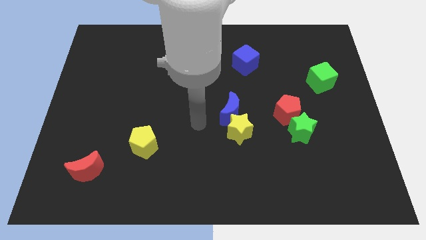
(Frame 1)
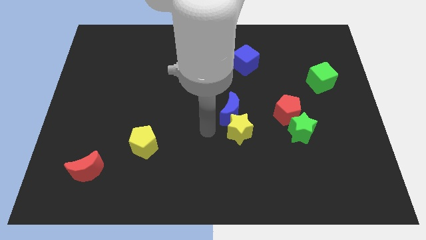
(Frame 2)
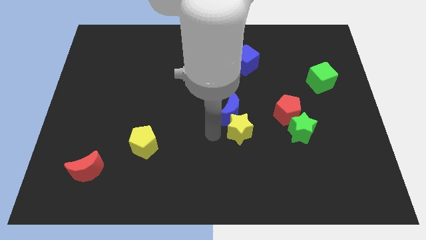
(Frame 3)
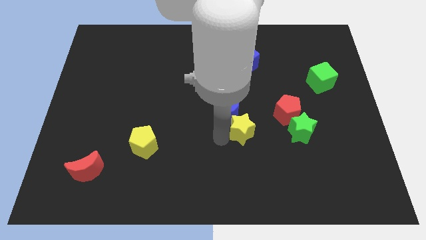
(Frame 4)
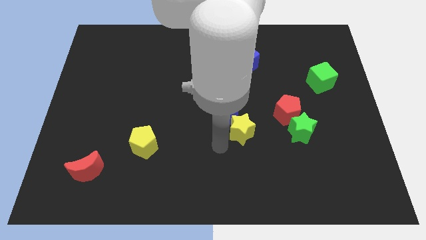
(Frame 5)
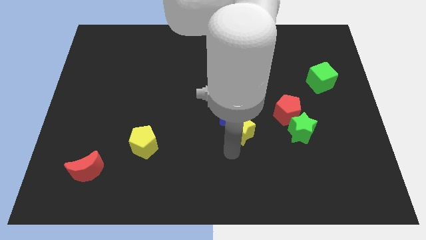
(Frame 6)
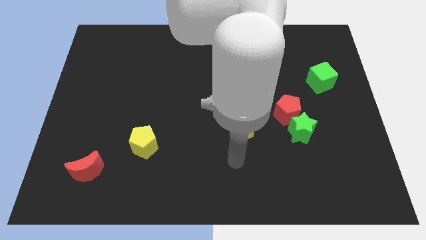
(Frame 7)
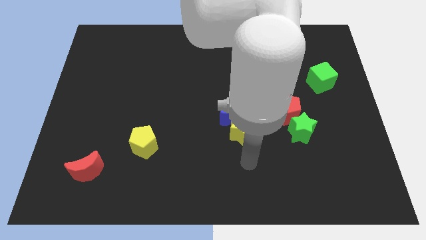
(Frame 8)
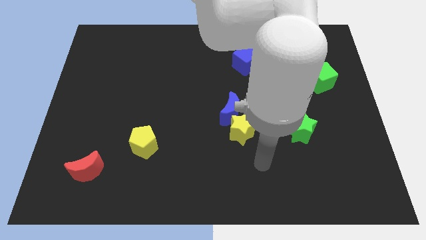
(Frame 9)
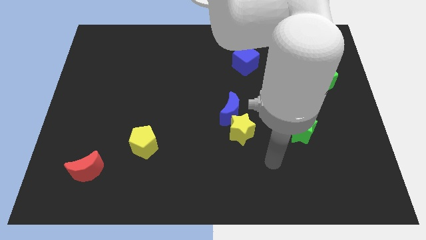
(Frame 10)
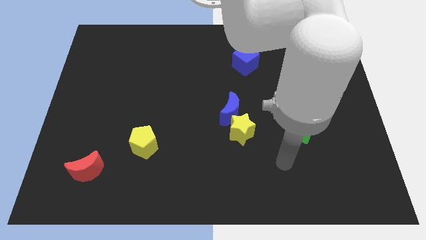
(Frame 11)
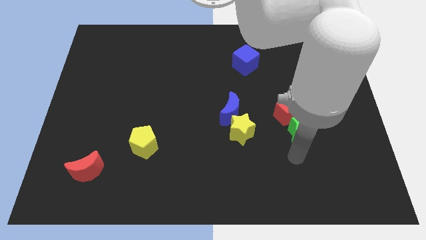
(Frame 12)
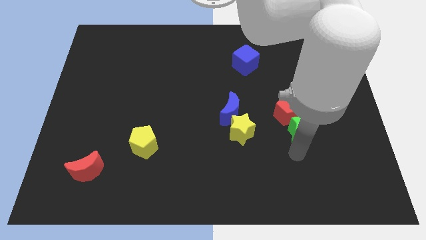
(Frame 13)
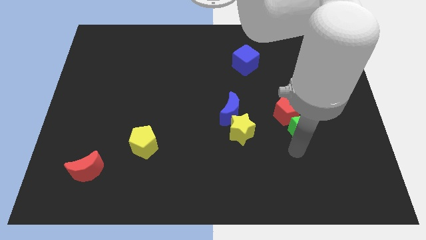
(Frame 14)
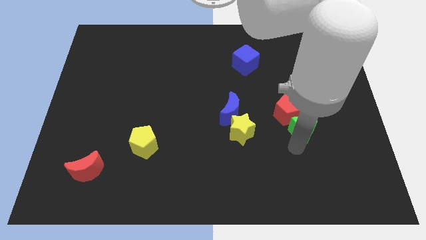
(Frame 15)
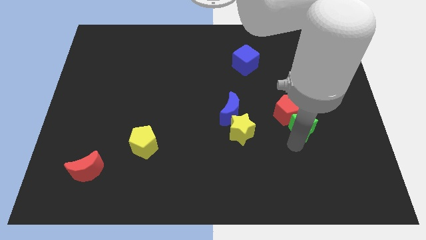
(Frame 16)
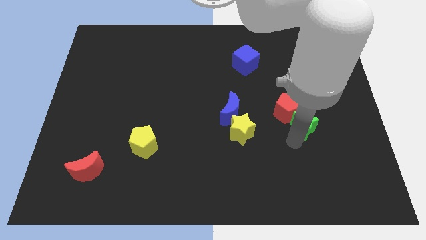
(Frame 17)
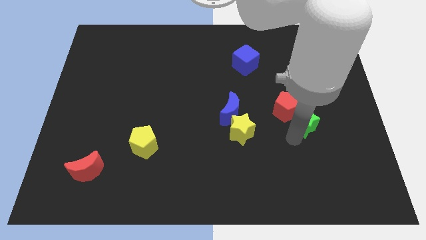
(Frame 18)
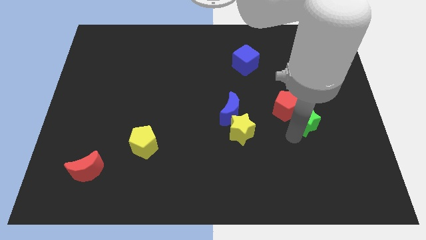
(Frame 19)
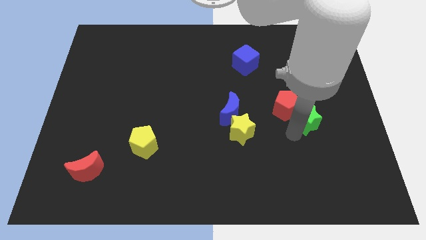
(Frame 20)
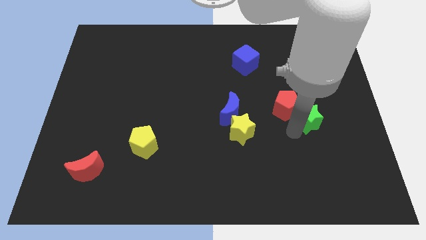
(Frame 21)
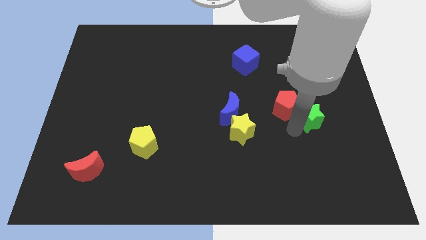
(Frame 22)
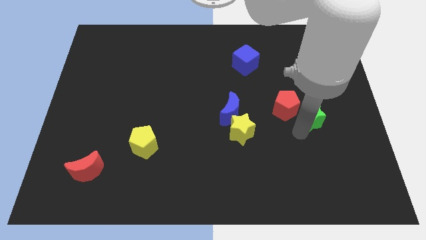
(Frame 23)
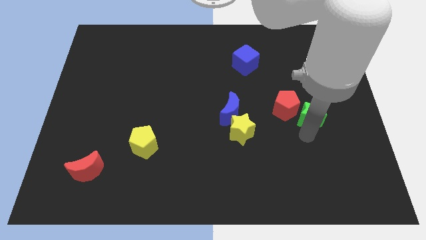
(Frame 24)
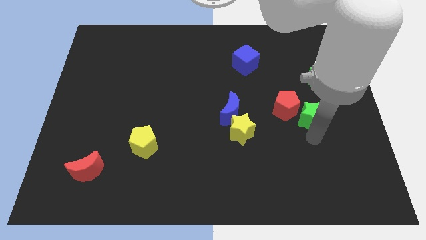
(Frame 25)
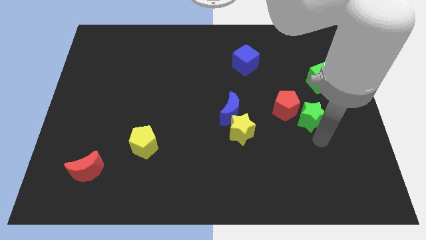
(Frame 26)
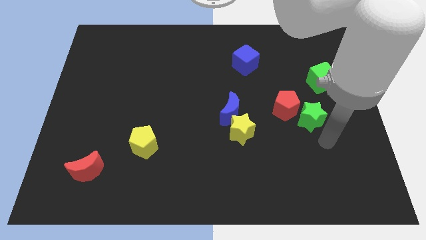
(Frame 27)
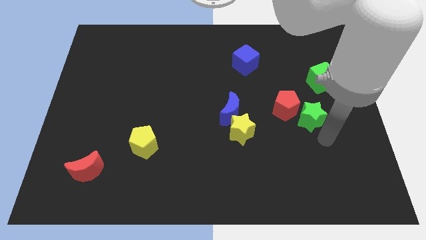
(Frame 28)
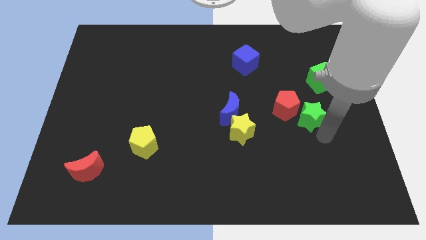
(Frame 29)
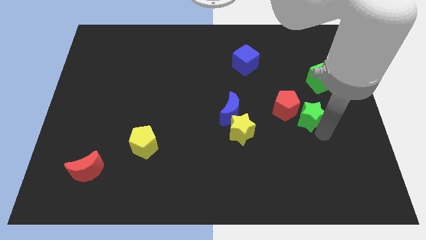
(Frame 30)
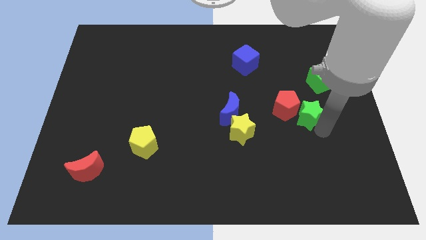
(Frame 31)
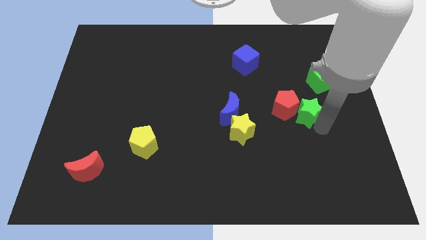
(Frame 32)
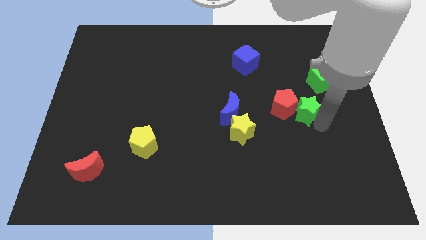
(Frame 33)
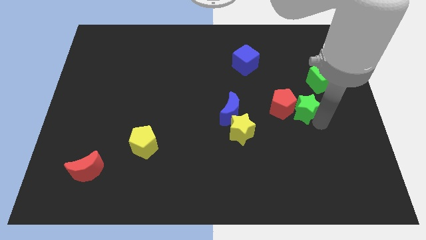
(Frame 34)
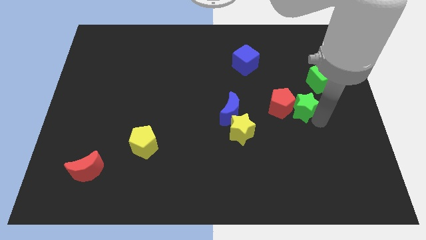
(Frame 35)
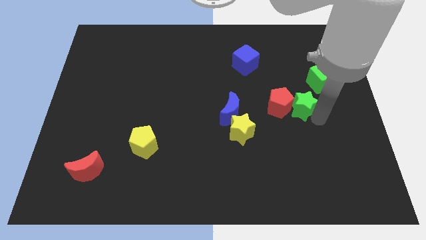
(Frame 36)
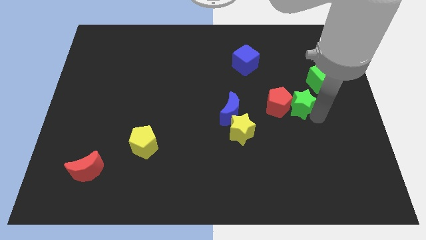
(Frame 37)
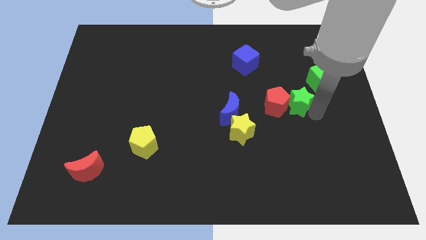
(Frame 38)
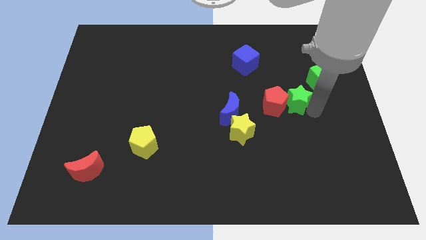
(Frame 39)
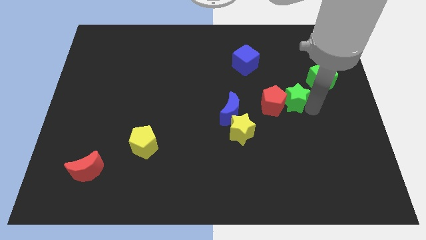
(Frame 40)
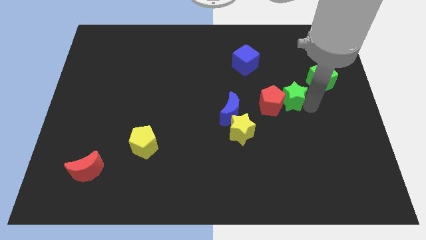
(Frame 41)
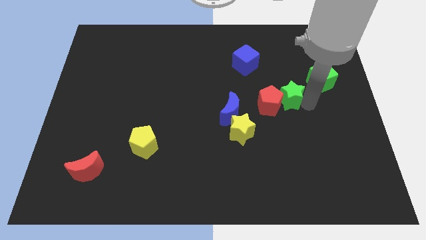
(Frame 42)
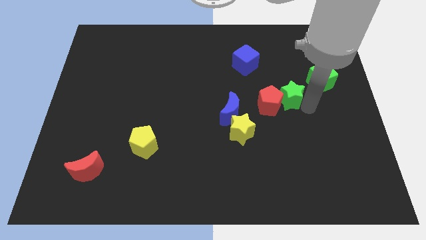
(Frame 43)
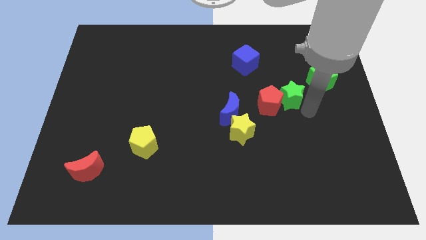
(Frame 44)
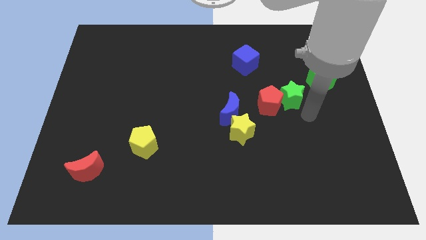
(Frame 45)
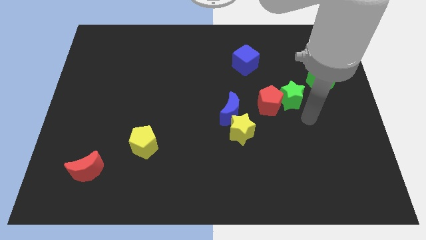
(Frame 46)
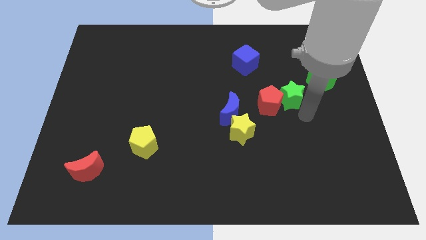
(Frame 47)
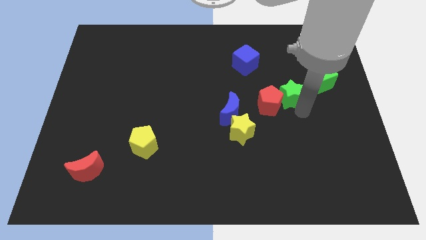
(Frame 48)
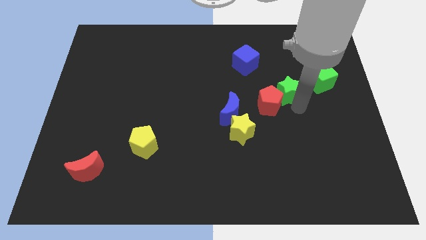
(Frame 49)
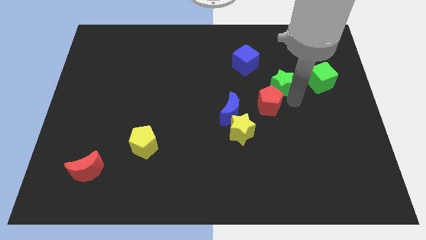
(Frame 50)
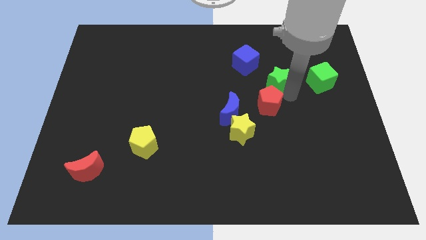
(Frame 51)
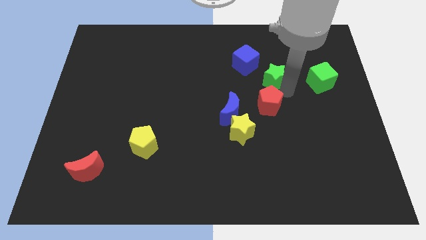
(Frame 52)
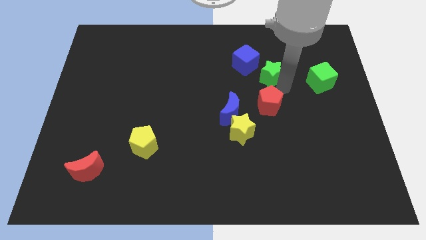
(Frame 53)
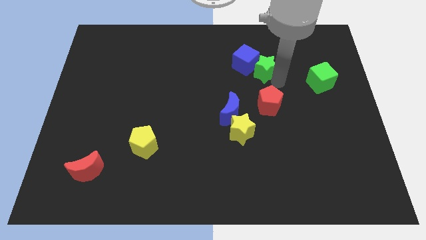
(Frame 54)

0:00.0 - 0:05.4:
push the green star to the blue cube

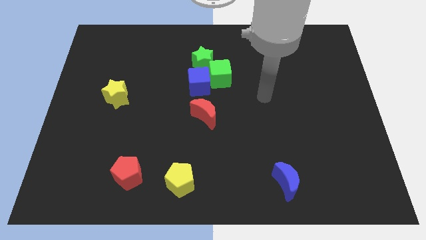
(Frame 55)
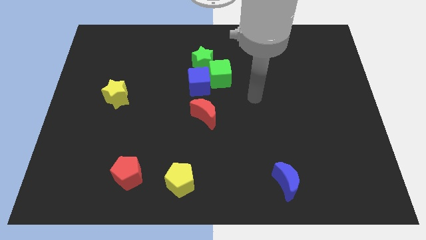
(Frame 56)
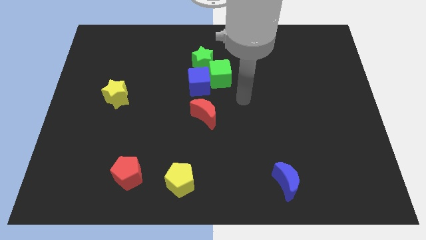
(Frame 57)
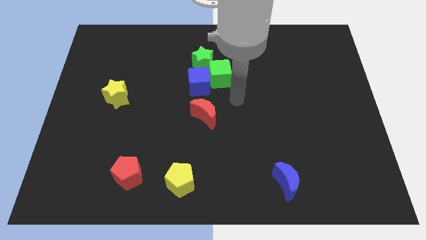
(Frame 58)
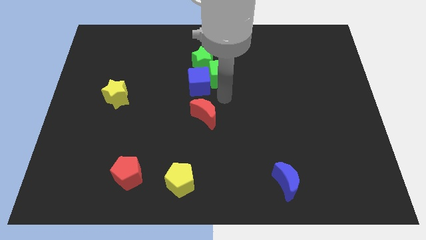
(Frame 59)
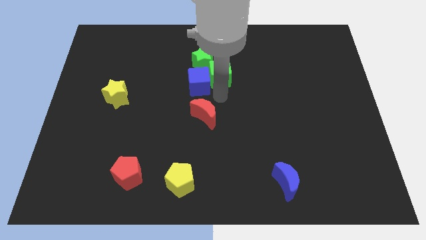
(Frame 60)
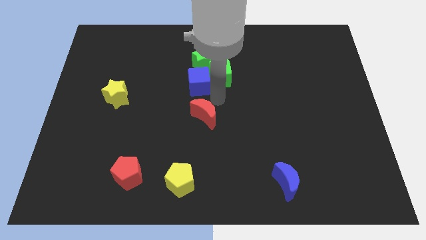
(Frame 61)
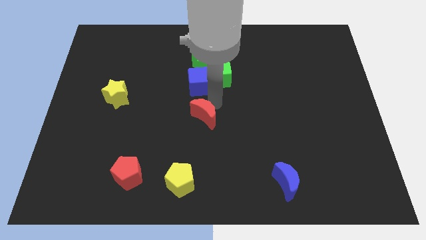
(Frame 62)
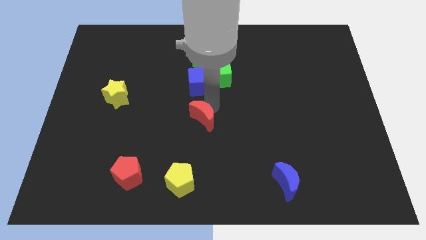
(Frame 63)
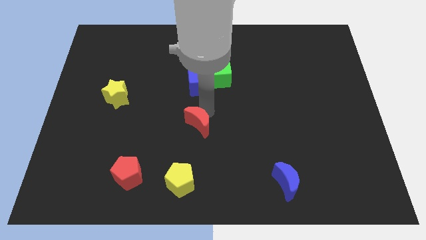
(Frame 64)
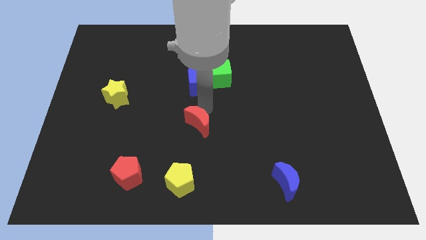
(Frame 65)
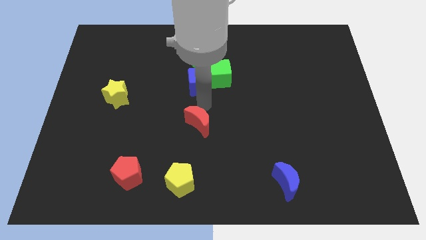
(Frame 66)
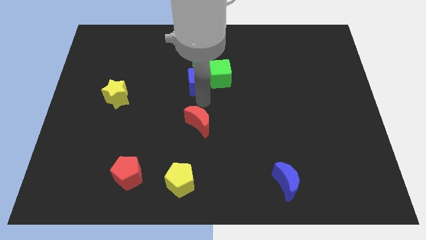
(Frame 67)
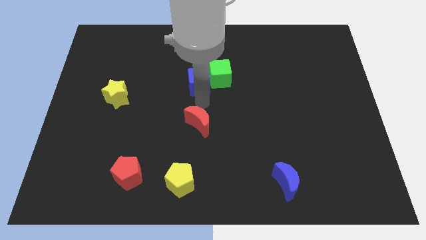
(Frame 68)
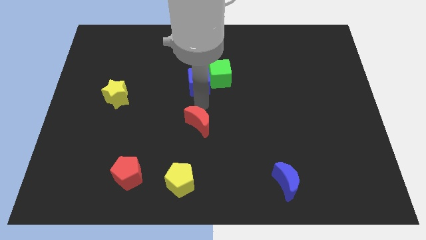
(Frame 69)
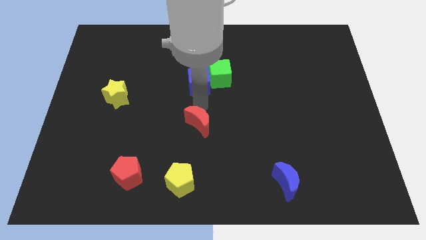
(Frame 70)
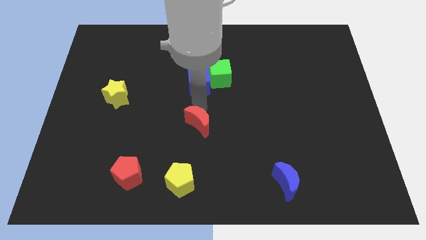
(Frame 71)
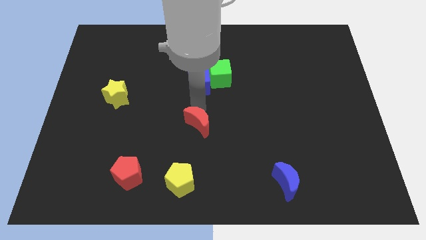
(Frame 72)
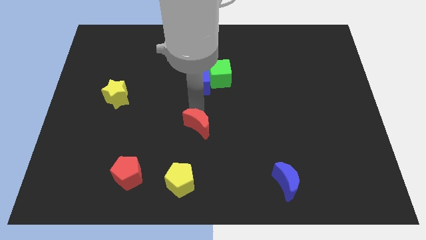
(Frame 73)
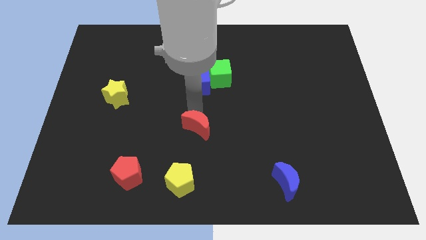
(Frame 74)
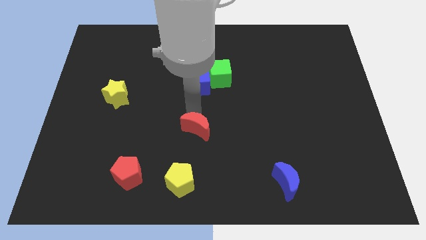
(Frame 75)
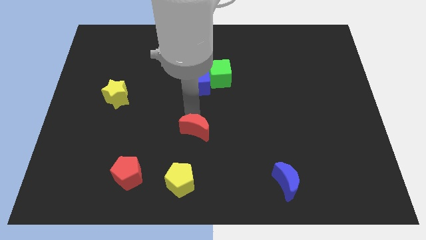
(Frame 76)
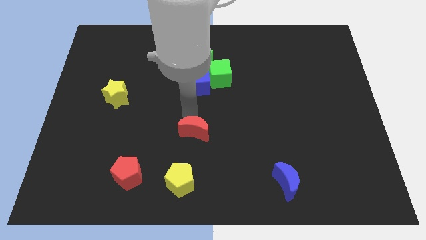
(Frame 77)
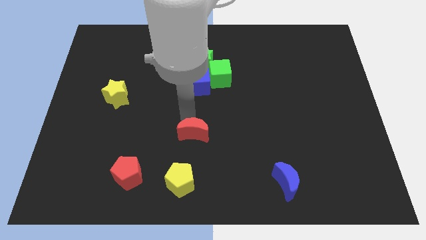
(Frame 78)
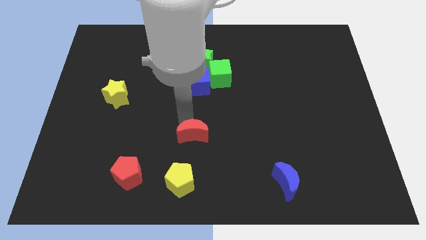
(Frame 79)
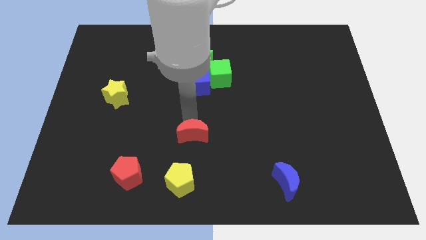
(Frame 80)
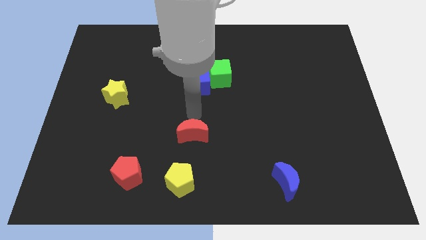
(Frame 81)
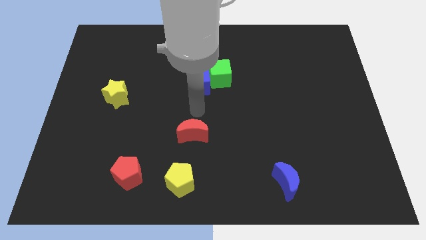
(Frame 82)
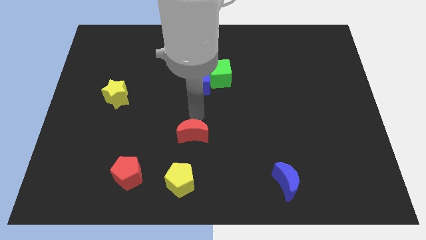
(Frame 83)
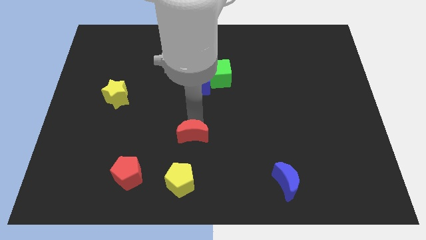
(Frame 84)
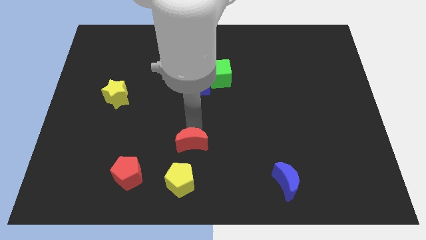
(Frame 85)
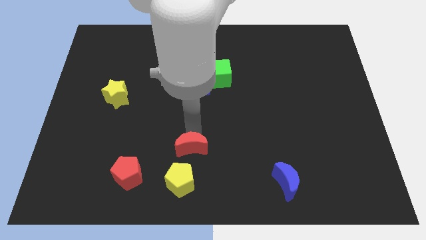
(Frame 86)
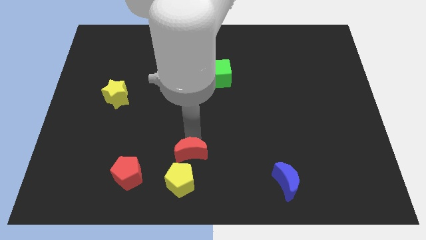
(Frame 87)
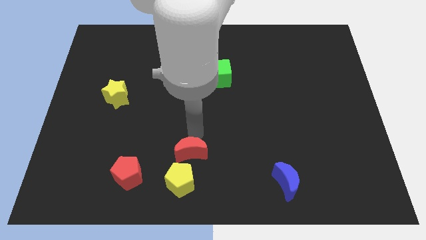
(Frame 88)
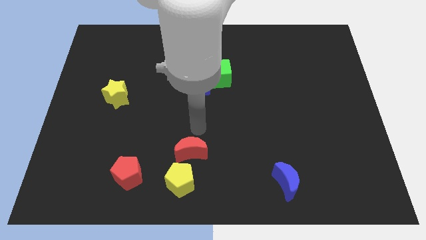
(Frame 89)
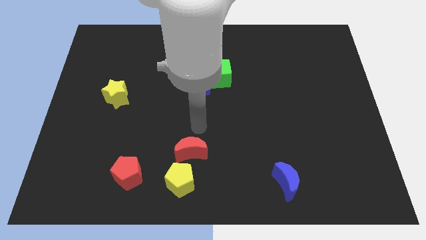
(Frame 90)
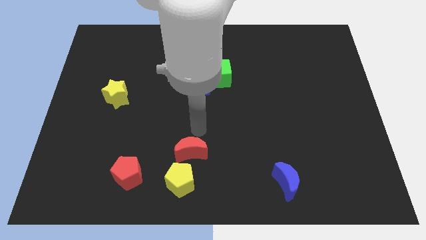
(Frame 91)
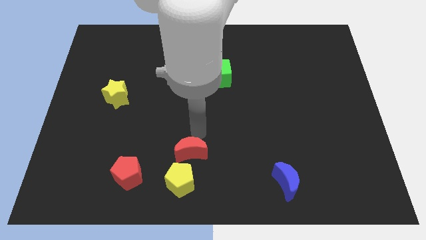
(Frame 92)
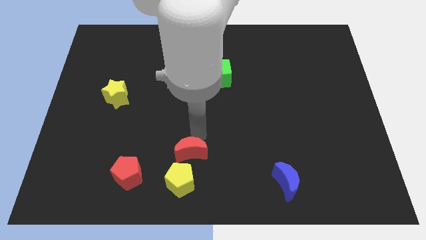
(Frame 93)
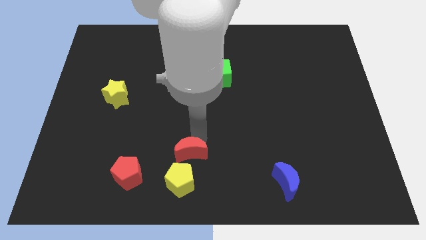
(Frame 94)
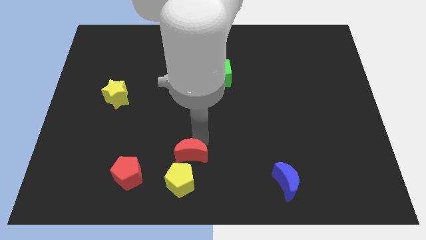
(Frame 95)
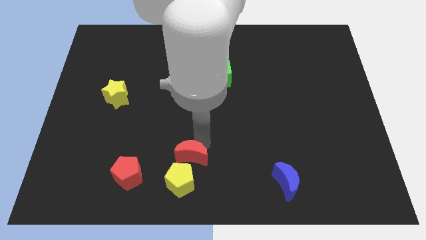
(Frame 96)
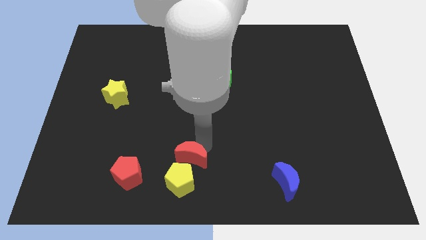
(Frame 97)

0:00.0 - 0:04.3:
slide the red moon next to the yellow pentagon
